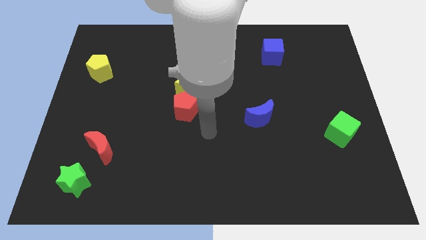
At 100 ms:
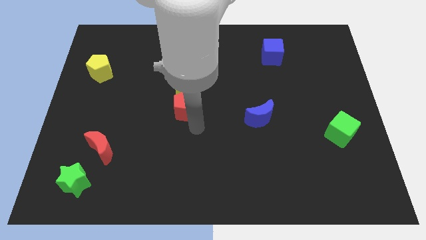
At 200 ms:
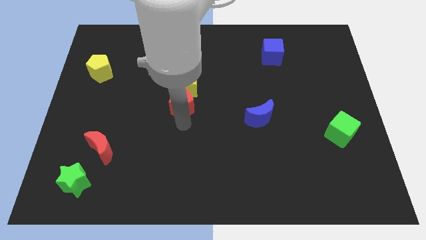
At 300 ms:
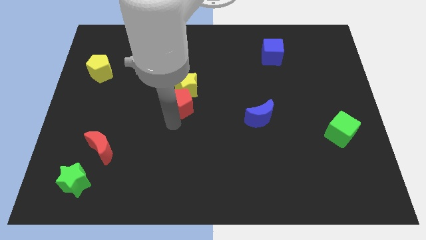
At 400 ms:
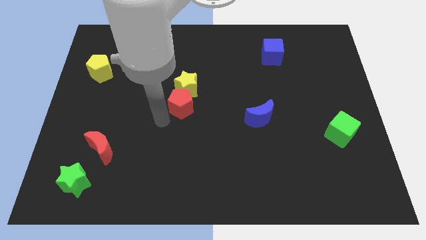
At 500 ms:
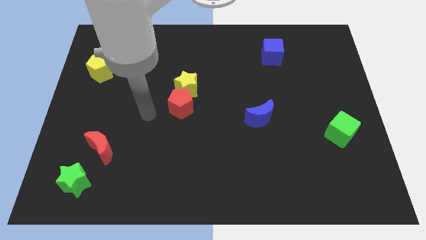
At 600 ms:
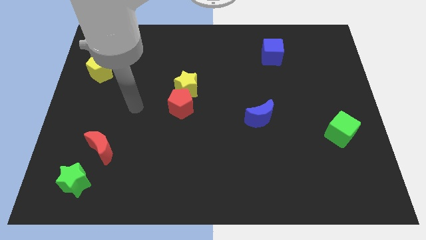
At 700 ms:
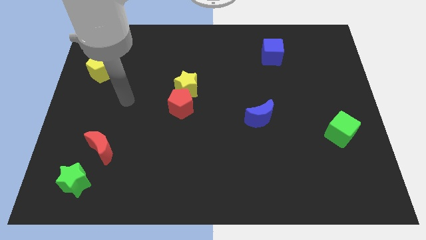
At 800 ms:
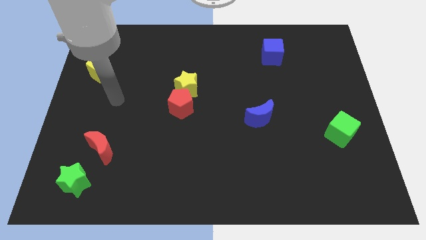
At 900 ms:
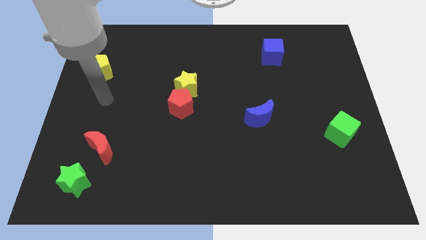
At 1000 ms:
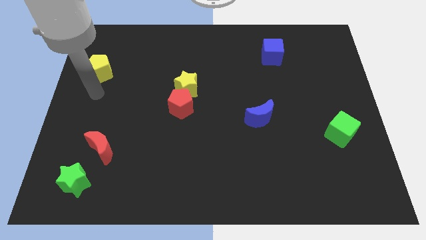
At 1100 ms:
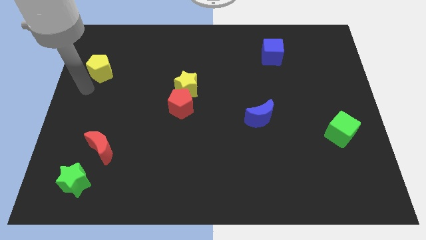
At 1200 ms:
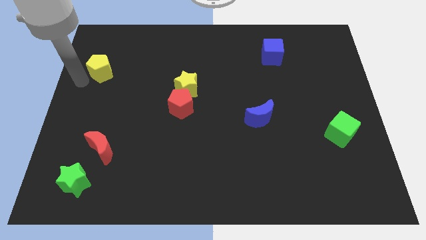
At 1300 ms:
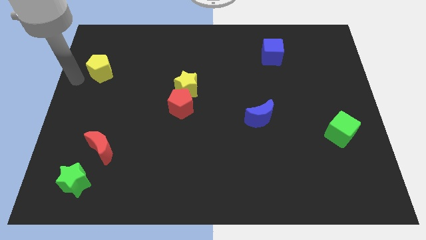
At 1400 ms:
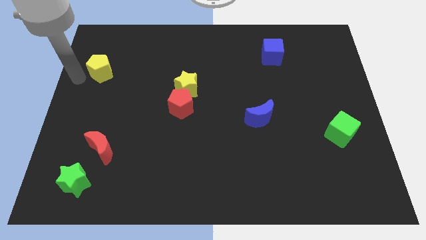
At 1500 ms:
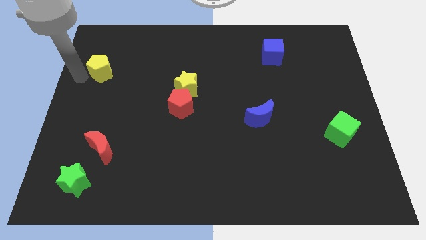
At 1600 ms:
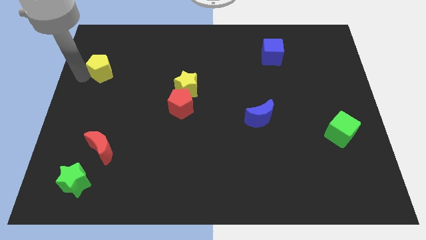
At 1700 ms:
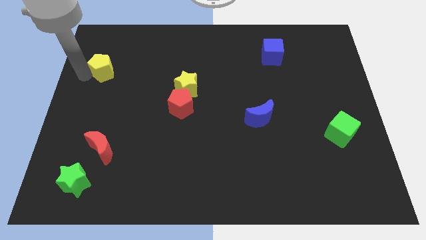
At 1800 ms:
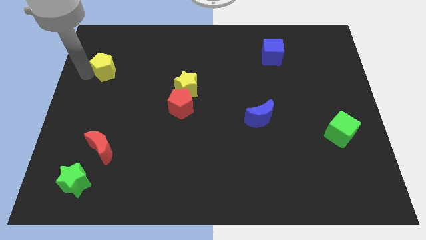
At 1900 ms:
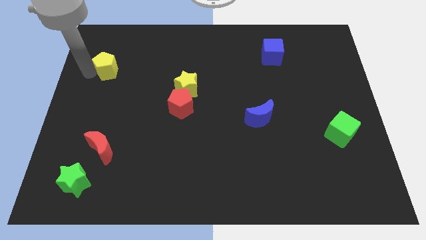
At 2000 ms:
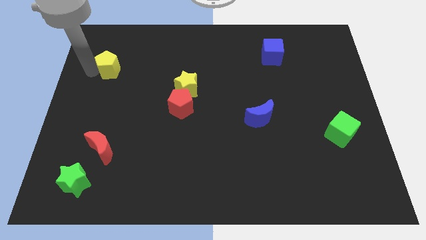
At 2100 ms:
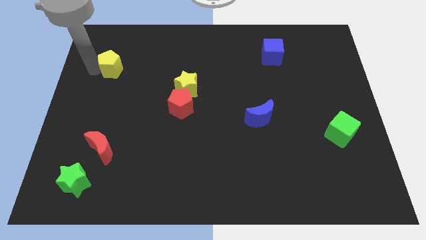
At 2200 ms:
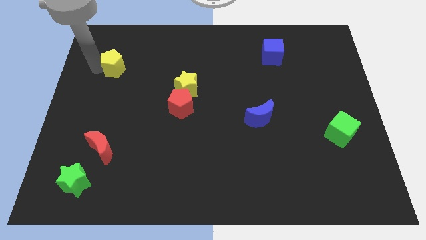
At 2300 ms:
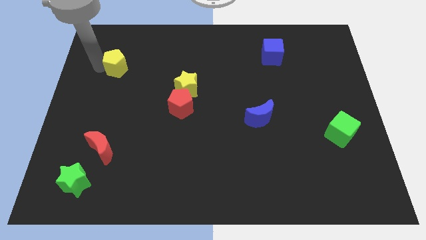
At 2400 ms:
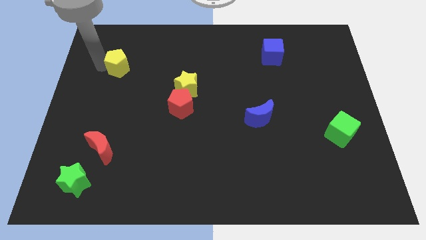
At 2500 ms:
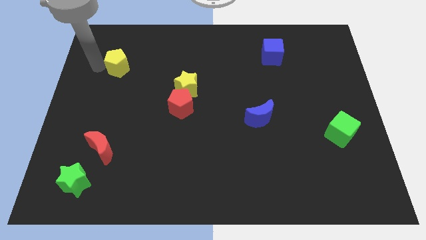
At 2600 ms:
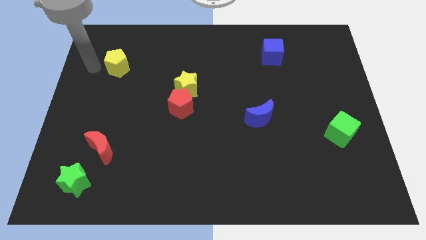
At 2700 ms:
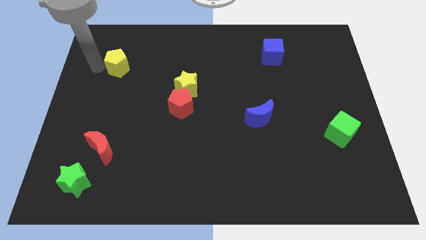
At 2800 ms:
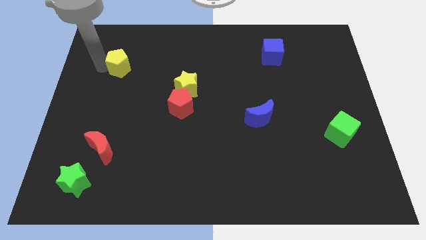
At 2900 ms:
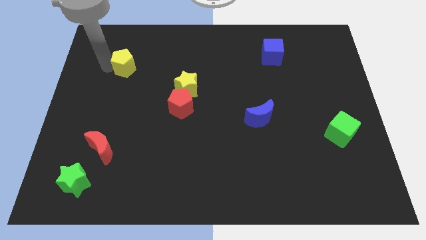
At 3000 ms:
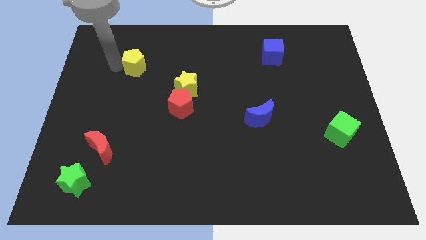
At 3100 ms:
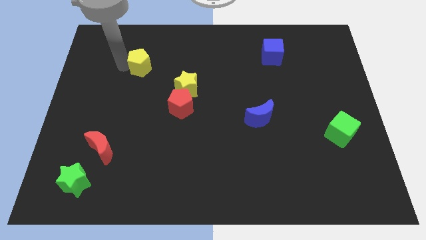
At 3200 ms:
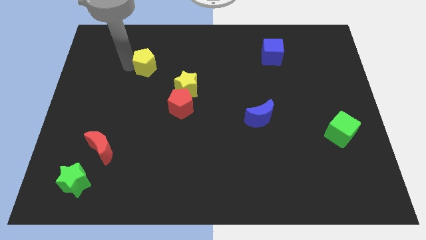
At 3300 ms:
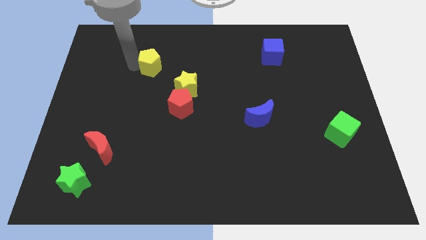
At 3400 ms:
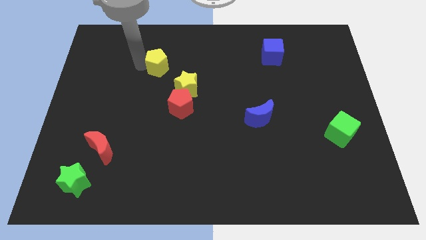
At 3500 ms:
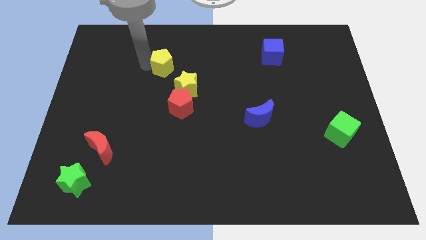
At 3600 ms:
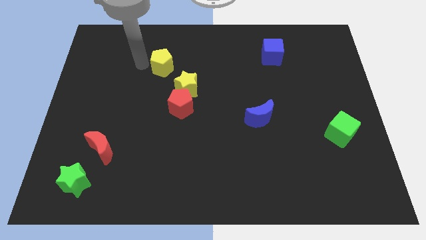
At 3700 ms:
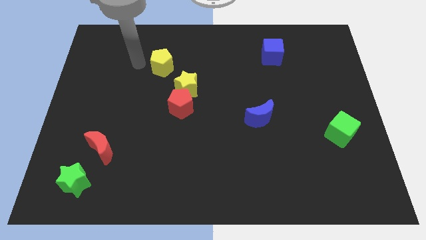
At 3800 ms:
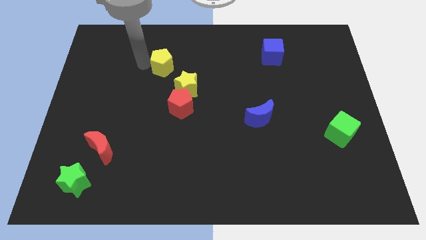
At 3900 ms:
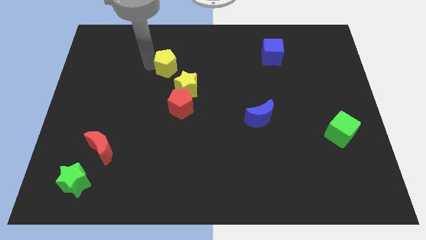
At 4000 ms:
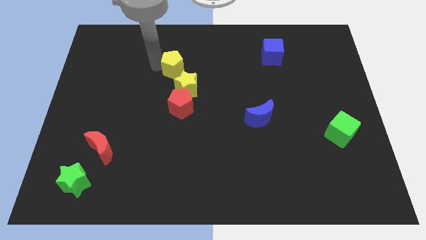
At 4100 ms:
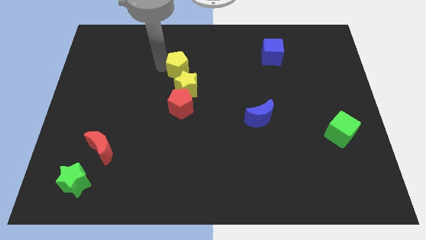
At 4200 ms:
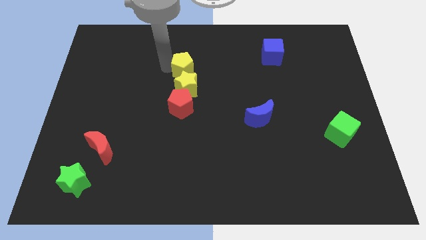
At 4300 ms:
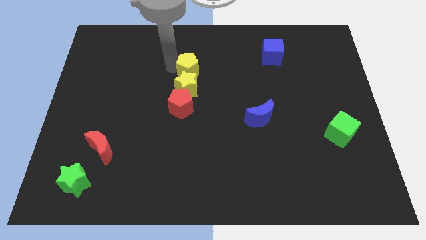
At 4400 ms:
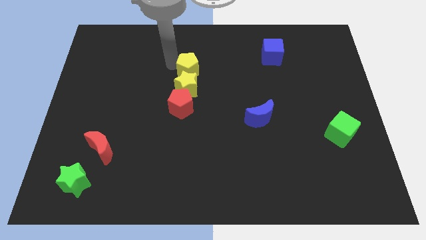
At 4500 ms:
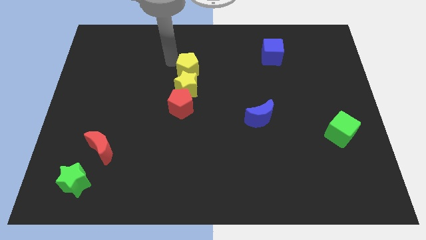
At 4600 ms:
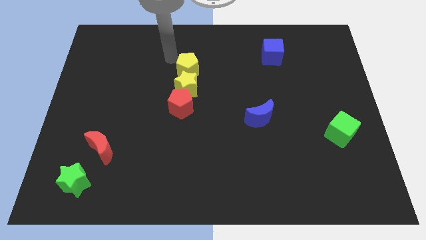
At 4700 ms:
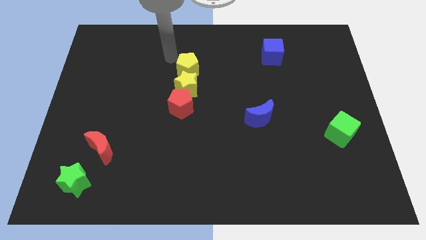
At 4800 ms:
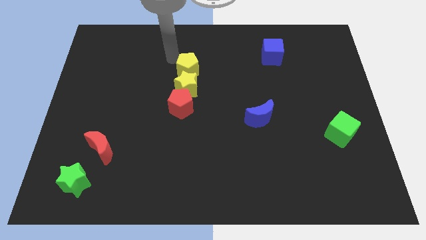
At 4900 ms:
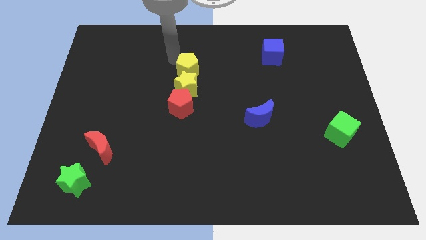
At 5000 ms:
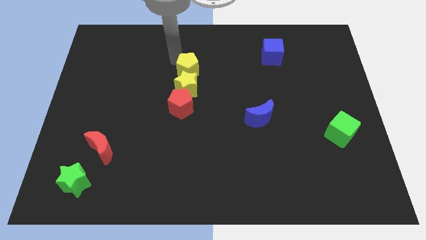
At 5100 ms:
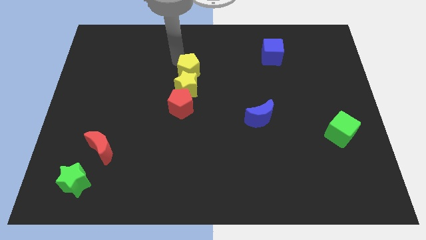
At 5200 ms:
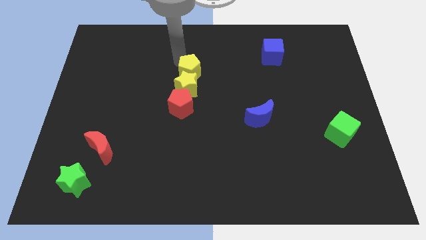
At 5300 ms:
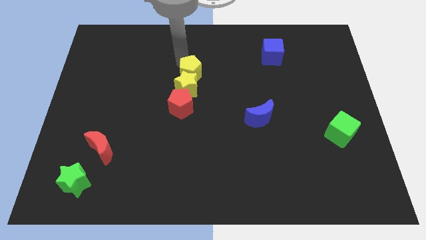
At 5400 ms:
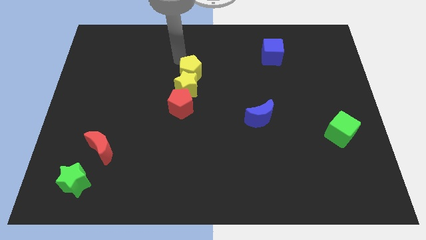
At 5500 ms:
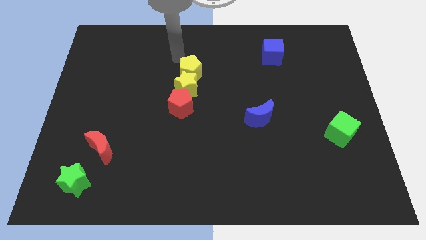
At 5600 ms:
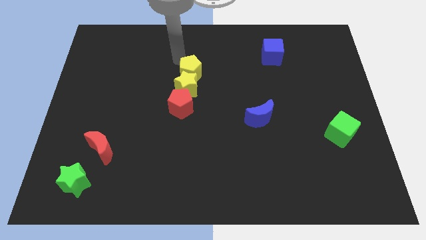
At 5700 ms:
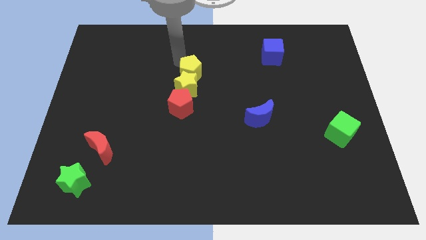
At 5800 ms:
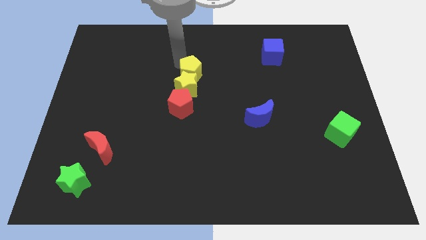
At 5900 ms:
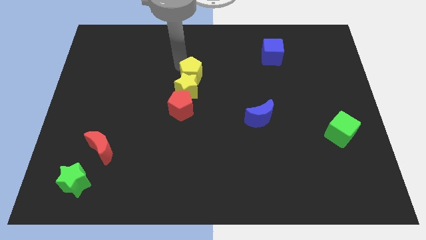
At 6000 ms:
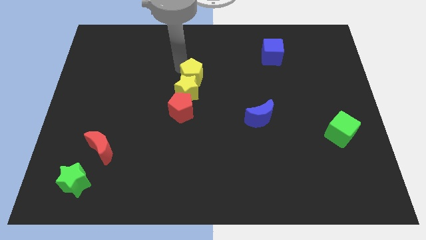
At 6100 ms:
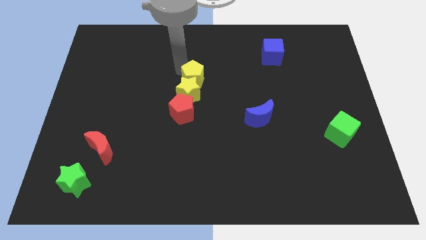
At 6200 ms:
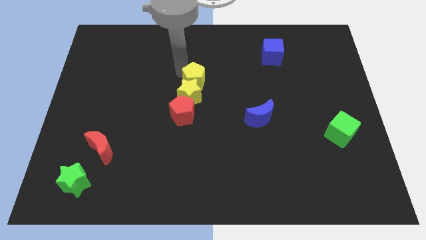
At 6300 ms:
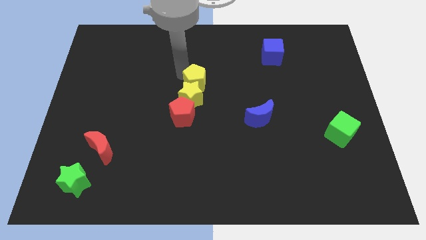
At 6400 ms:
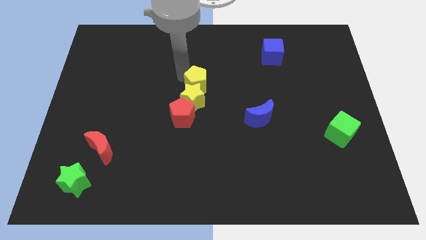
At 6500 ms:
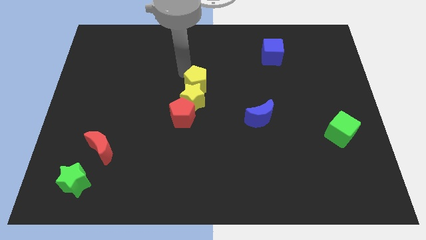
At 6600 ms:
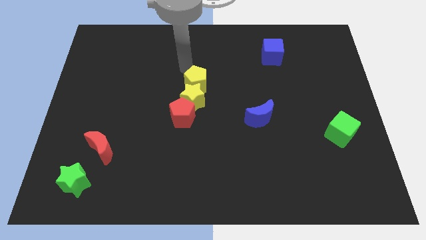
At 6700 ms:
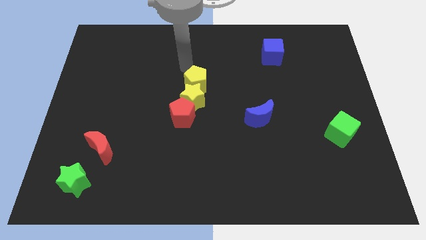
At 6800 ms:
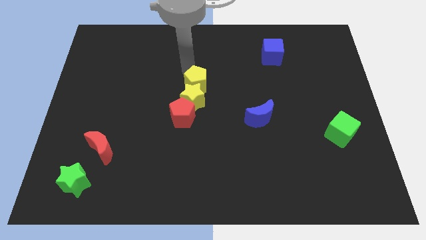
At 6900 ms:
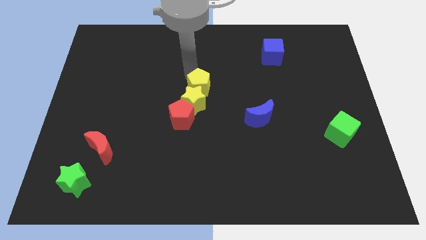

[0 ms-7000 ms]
put the yellow pentagon diagonally up and to the right of the red pentagon
